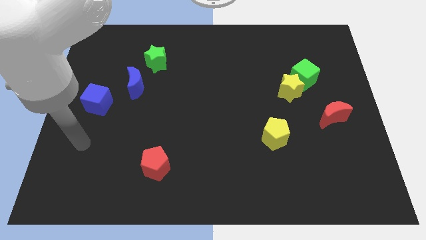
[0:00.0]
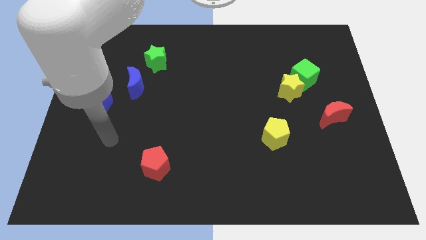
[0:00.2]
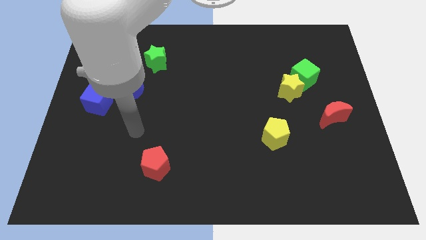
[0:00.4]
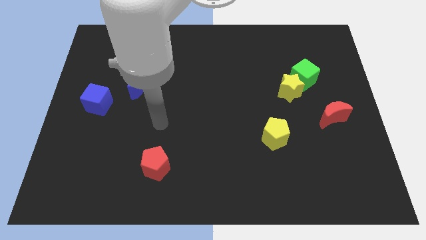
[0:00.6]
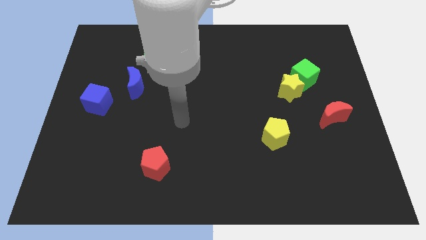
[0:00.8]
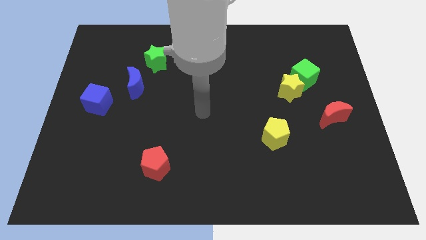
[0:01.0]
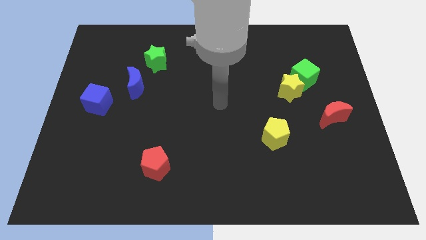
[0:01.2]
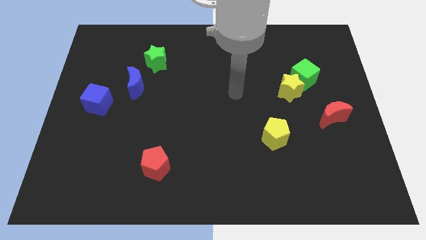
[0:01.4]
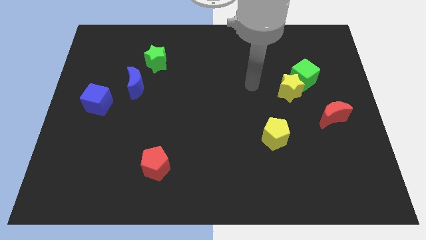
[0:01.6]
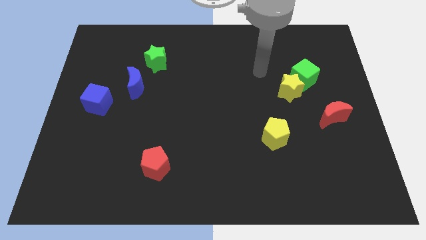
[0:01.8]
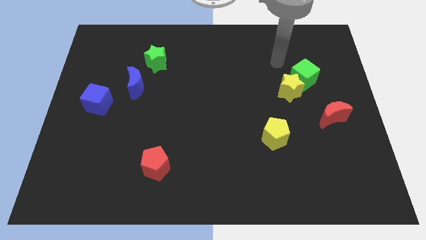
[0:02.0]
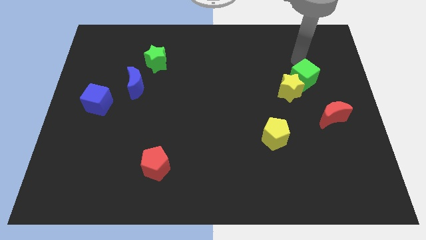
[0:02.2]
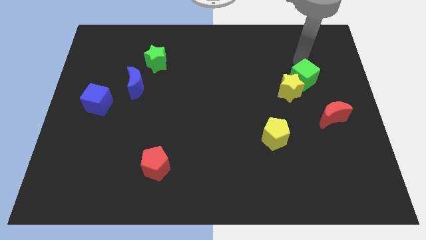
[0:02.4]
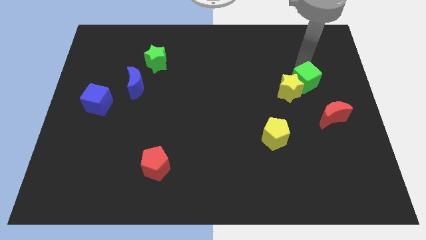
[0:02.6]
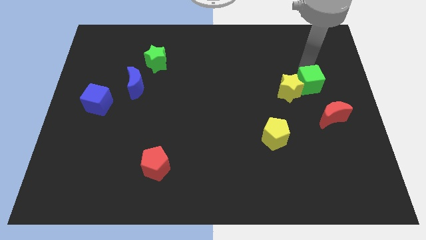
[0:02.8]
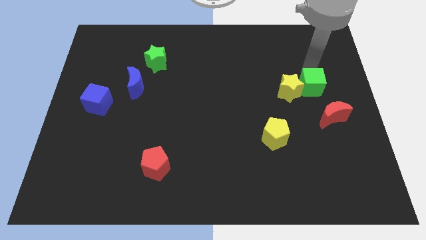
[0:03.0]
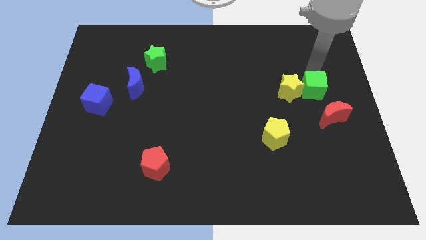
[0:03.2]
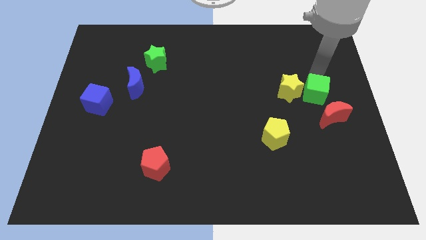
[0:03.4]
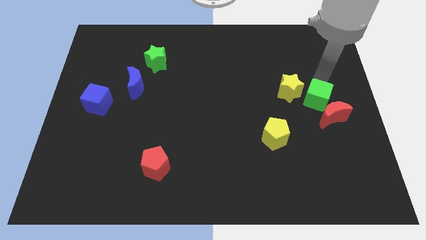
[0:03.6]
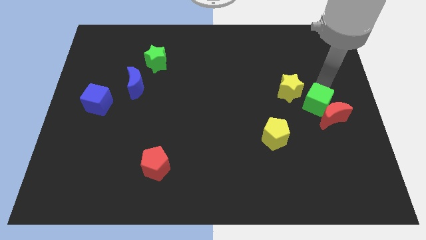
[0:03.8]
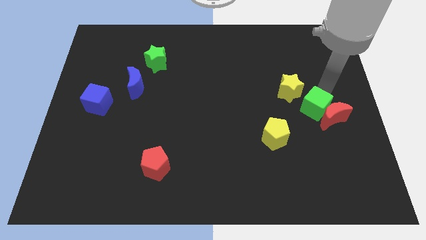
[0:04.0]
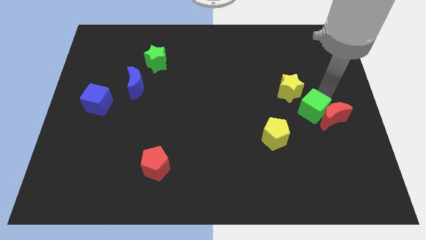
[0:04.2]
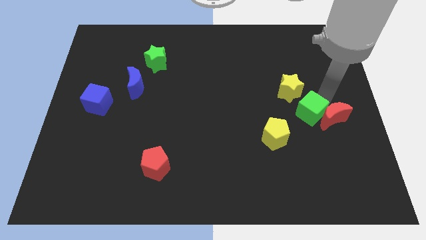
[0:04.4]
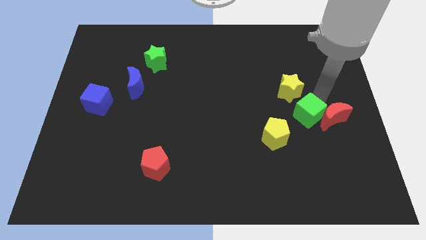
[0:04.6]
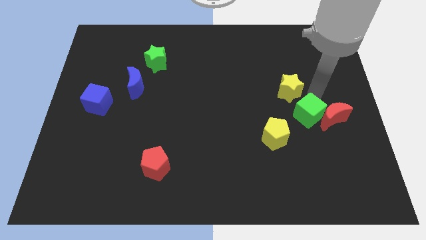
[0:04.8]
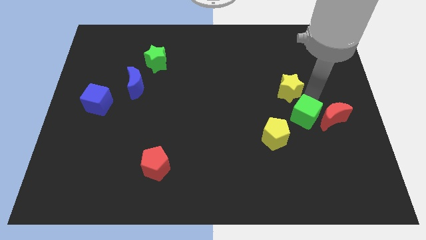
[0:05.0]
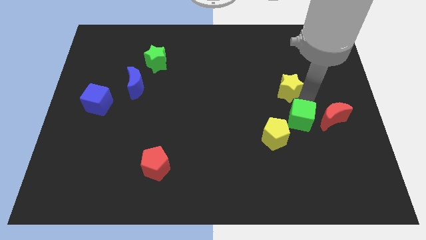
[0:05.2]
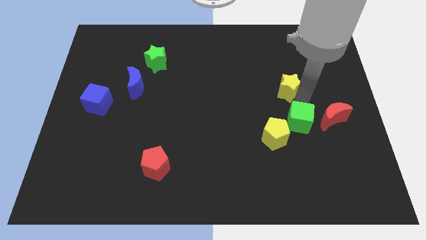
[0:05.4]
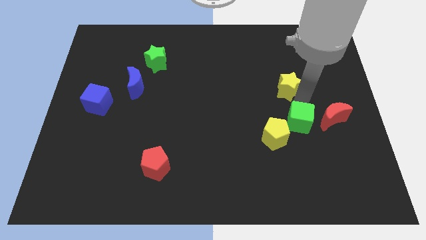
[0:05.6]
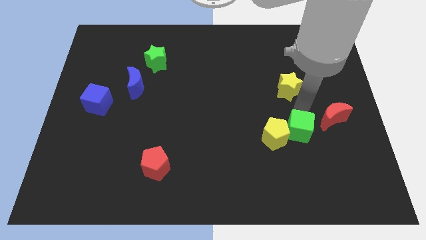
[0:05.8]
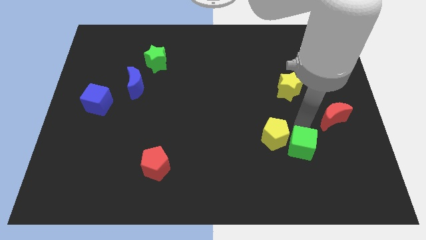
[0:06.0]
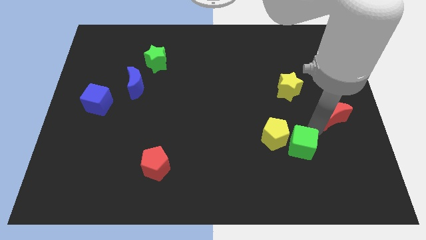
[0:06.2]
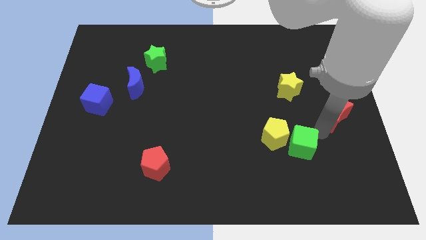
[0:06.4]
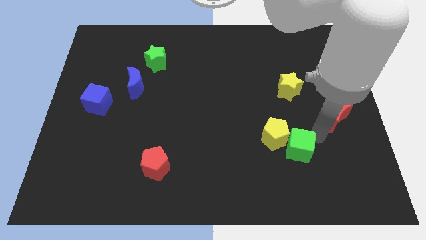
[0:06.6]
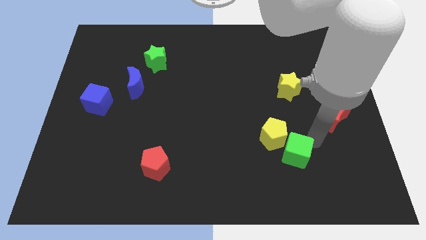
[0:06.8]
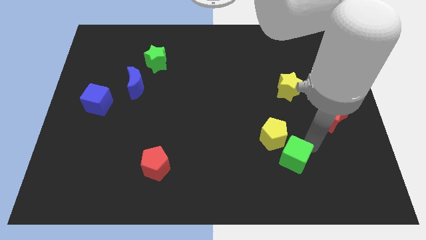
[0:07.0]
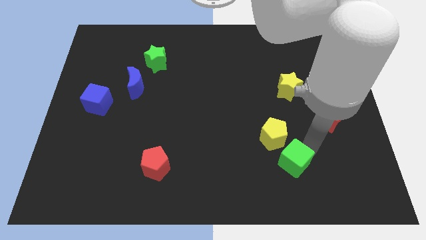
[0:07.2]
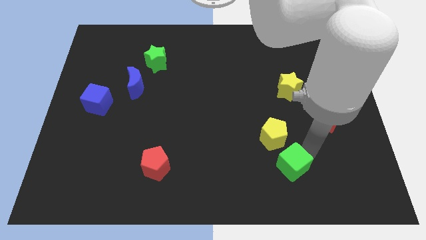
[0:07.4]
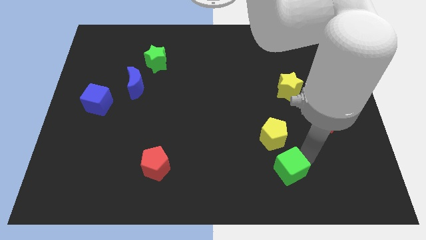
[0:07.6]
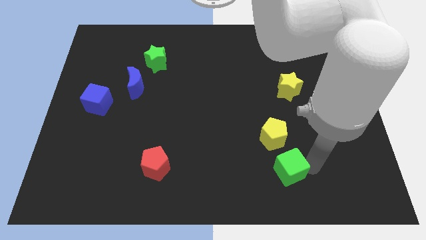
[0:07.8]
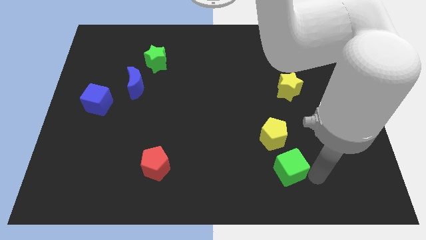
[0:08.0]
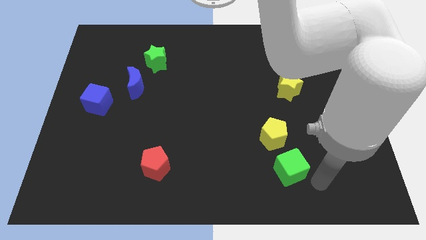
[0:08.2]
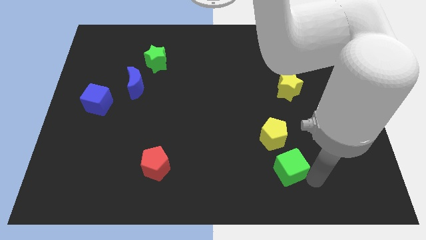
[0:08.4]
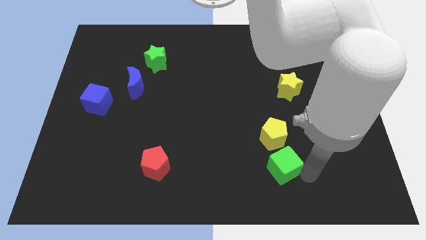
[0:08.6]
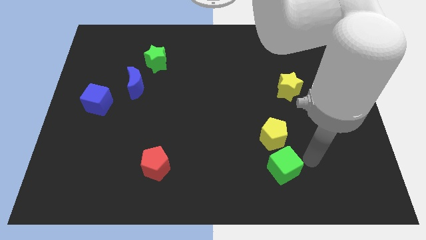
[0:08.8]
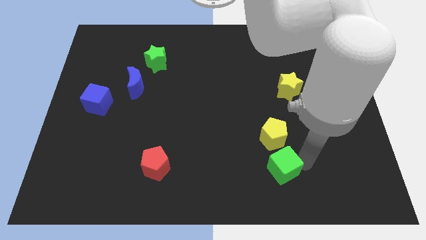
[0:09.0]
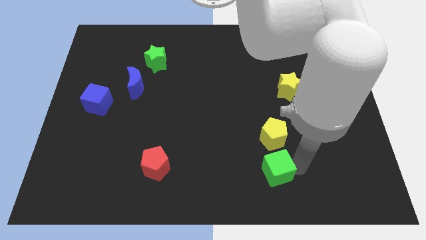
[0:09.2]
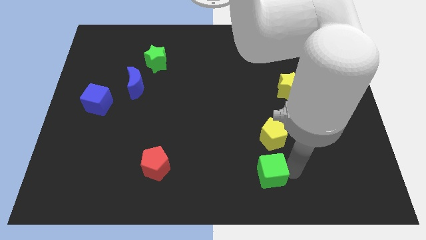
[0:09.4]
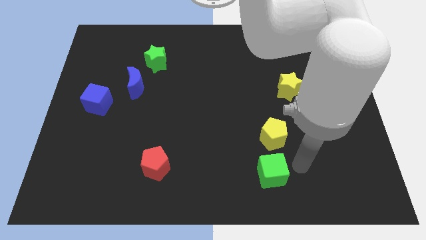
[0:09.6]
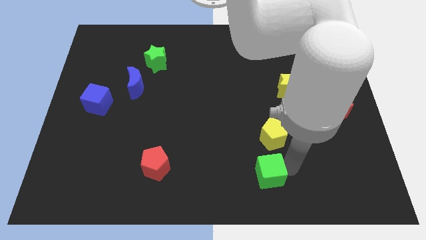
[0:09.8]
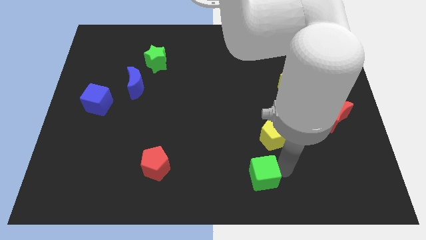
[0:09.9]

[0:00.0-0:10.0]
move the green cube to the bottom side

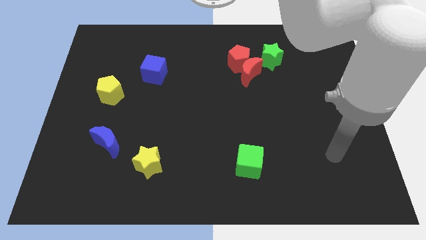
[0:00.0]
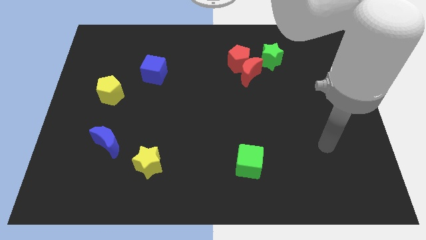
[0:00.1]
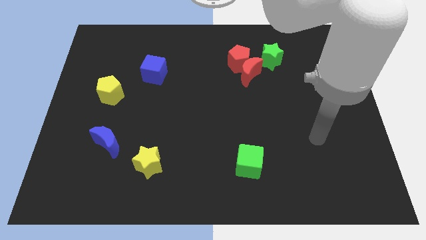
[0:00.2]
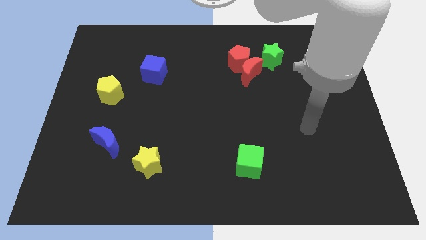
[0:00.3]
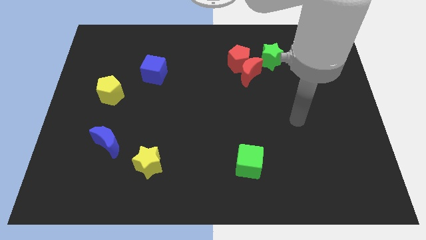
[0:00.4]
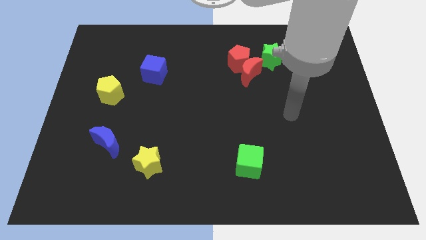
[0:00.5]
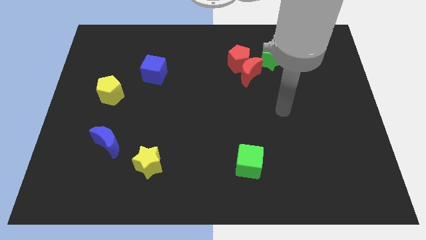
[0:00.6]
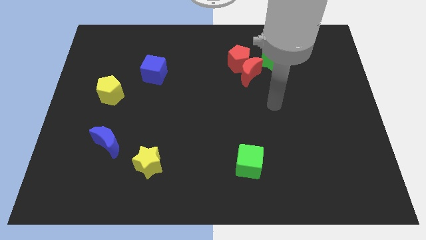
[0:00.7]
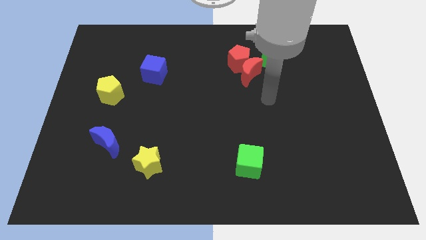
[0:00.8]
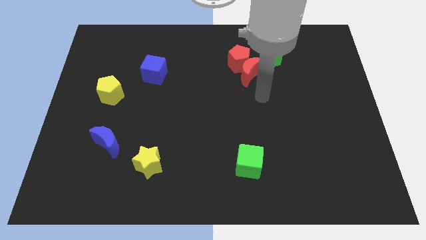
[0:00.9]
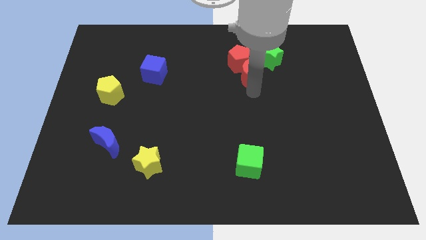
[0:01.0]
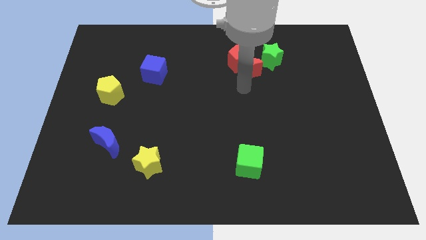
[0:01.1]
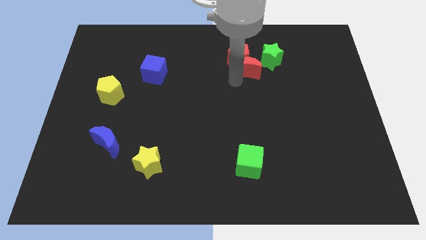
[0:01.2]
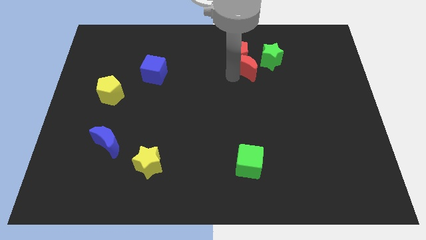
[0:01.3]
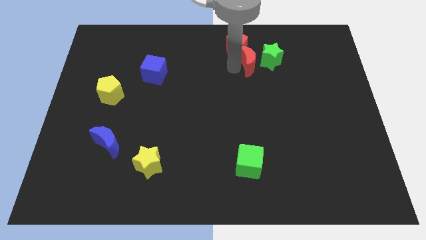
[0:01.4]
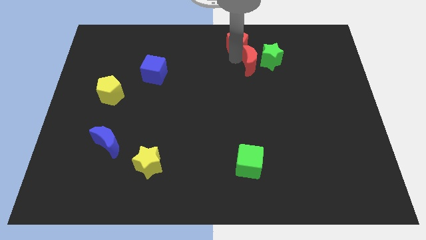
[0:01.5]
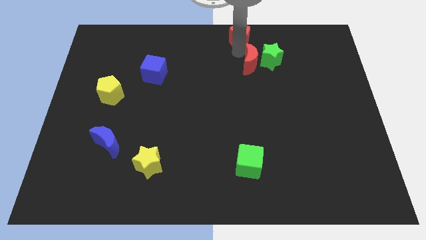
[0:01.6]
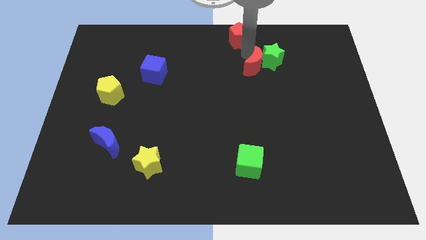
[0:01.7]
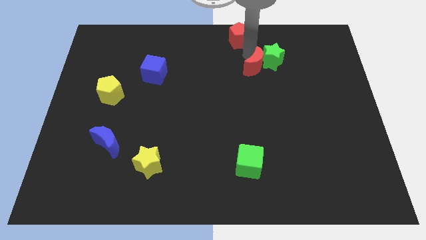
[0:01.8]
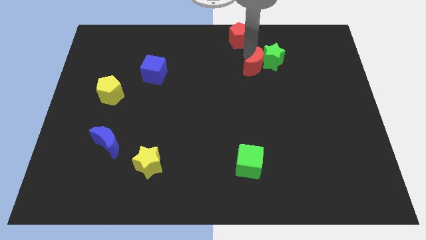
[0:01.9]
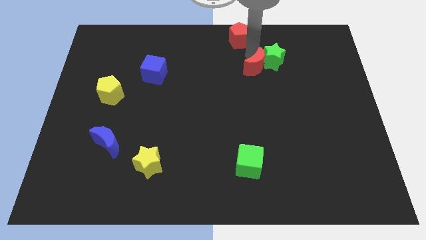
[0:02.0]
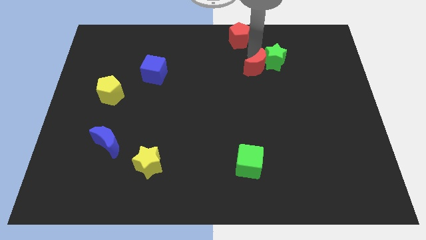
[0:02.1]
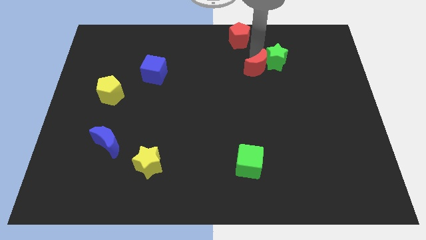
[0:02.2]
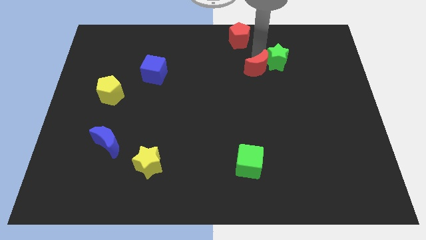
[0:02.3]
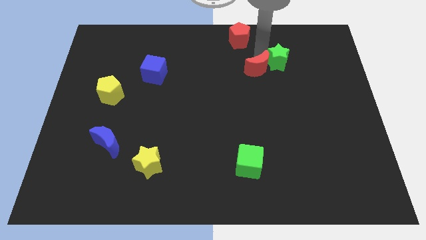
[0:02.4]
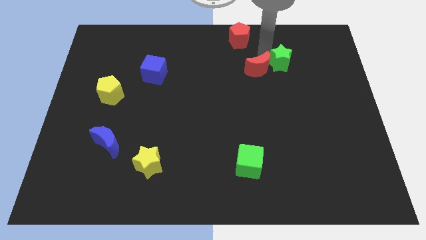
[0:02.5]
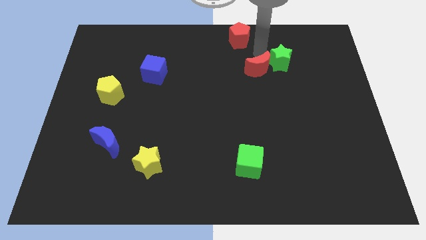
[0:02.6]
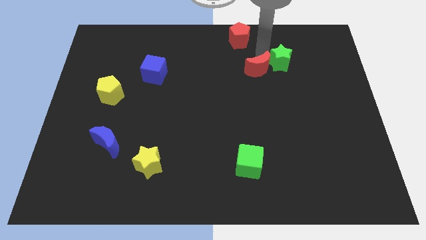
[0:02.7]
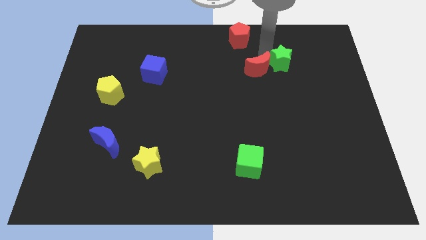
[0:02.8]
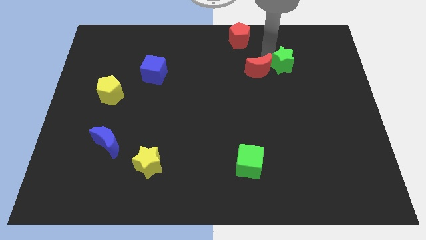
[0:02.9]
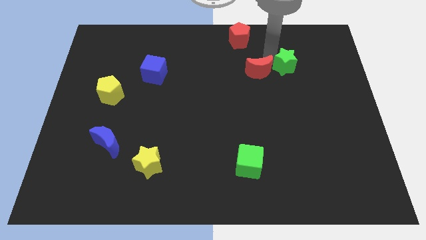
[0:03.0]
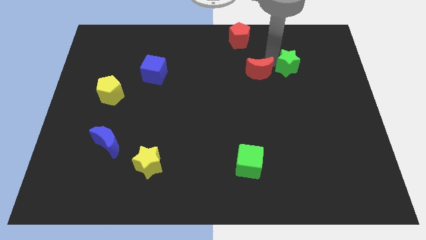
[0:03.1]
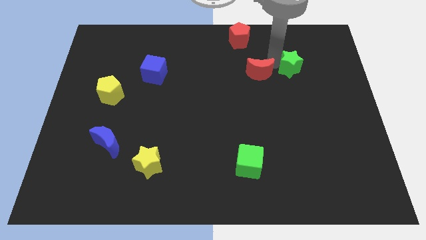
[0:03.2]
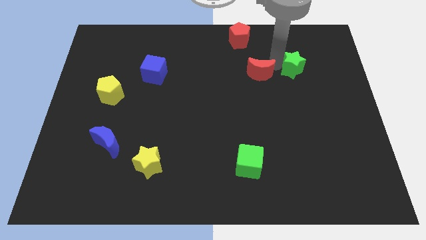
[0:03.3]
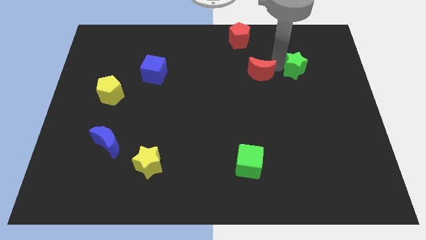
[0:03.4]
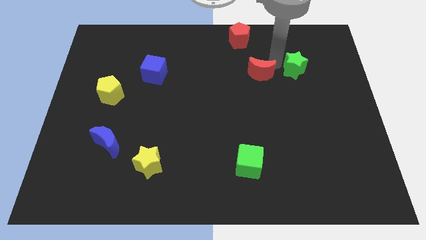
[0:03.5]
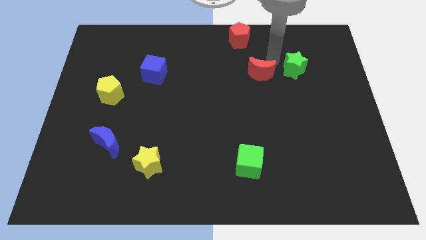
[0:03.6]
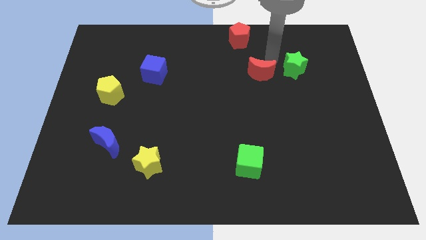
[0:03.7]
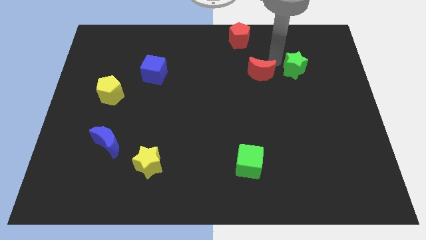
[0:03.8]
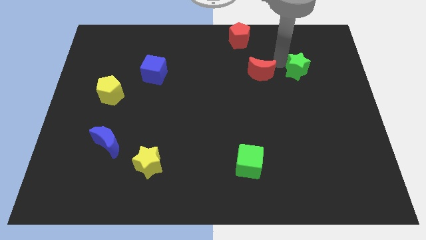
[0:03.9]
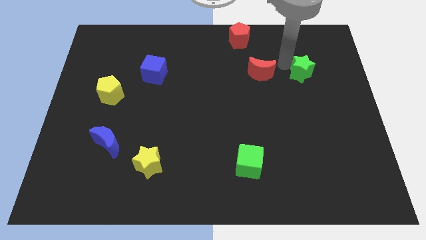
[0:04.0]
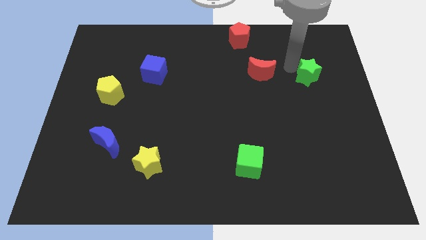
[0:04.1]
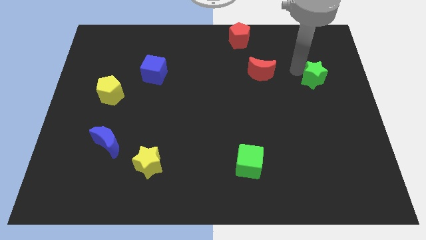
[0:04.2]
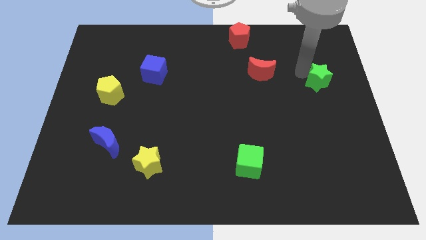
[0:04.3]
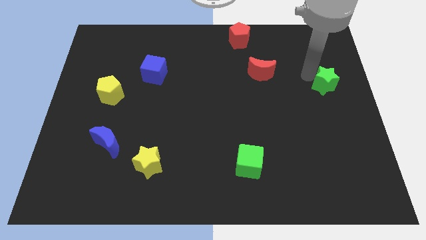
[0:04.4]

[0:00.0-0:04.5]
put the green star to the right side
